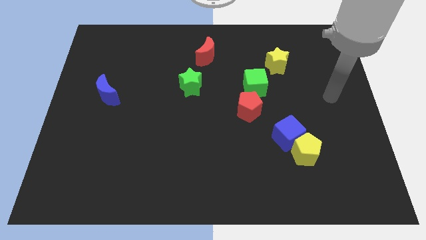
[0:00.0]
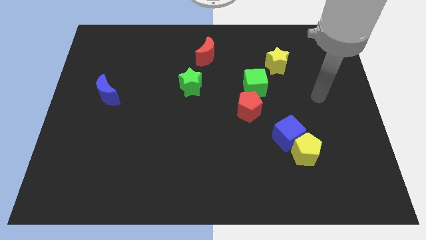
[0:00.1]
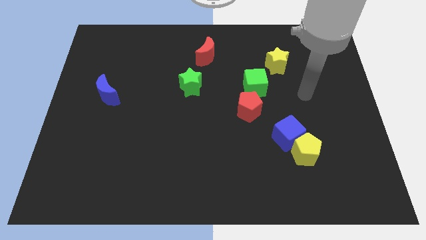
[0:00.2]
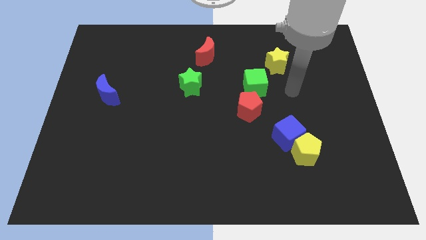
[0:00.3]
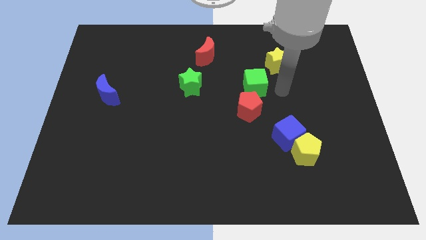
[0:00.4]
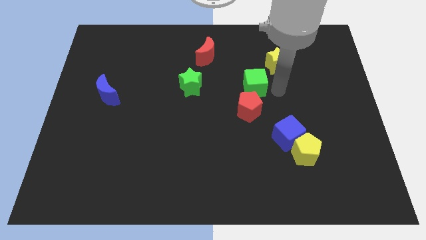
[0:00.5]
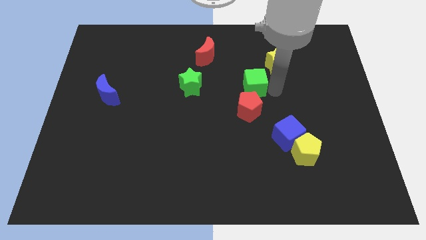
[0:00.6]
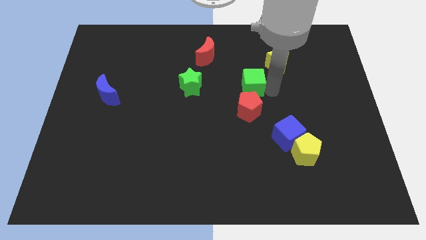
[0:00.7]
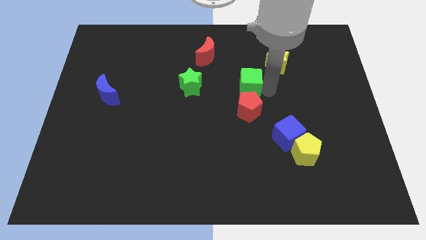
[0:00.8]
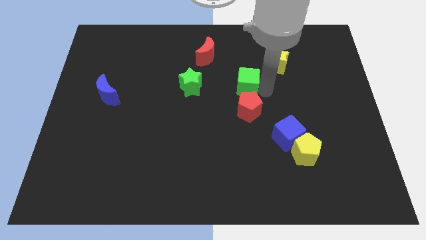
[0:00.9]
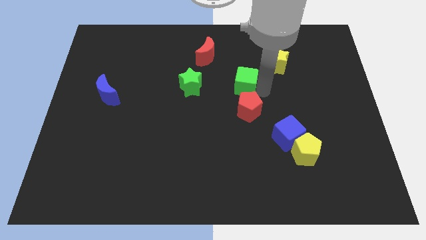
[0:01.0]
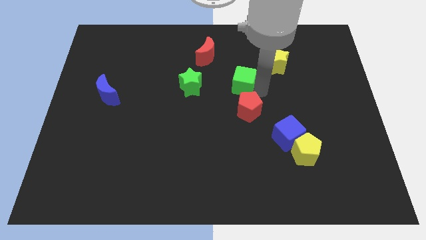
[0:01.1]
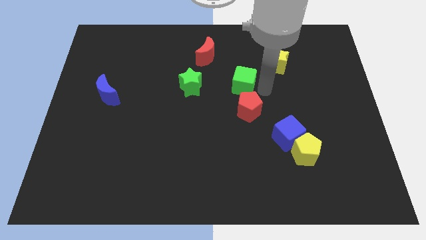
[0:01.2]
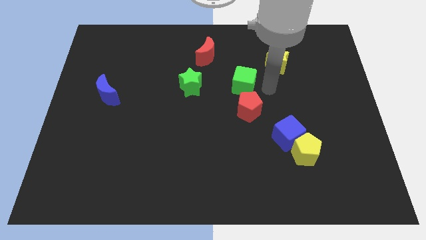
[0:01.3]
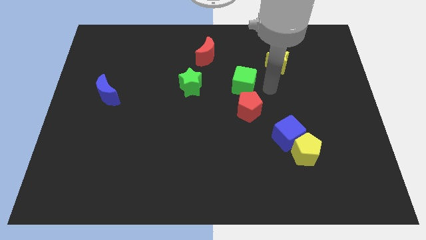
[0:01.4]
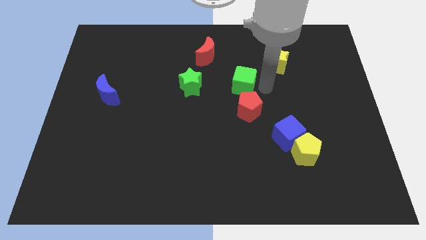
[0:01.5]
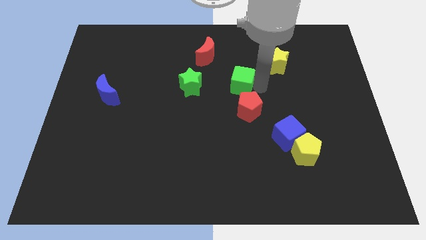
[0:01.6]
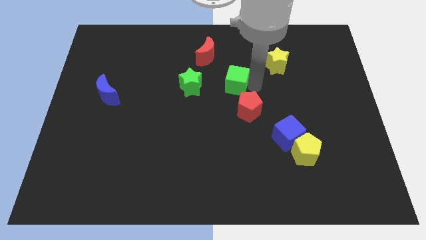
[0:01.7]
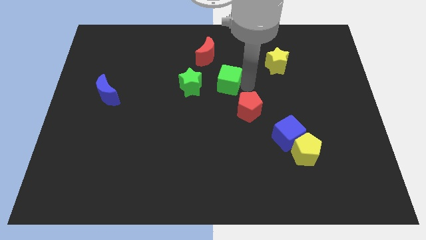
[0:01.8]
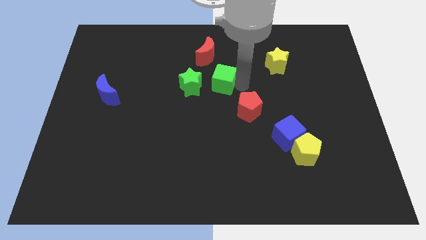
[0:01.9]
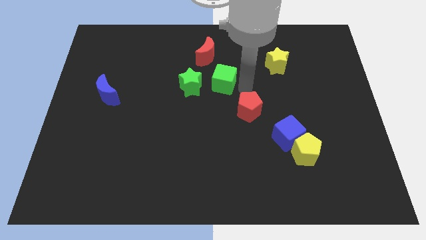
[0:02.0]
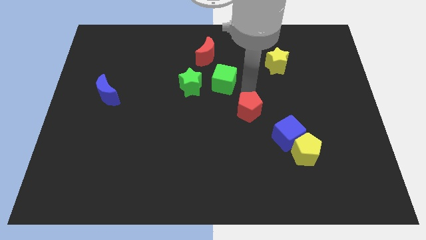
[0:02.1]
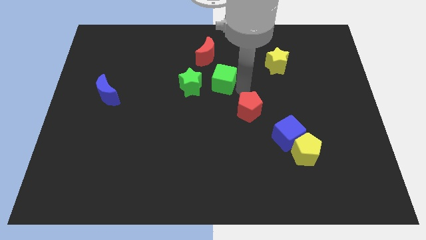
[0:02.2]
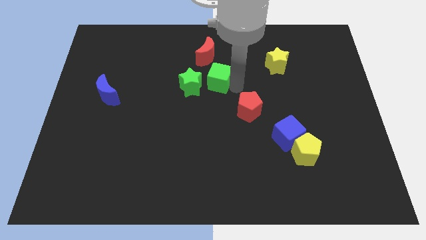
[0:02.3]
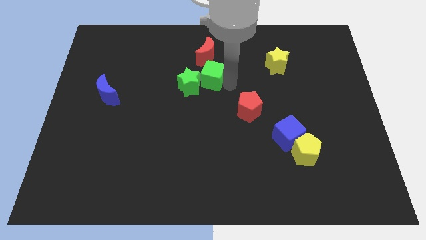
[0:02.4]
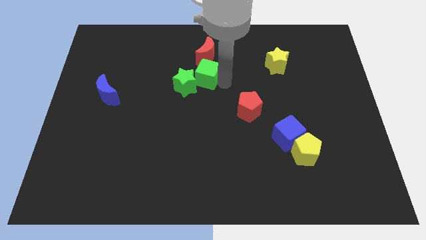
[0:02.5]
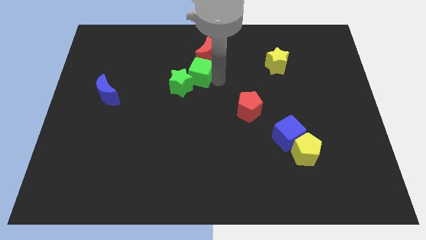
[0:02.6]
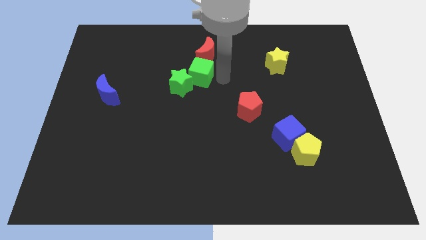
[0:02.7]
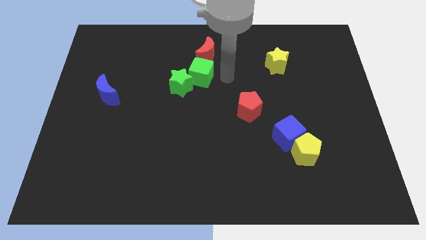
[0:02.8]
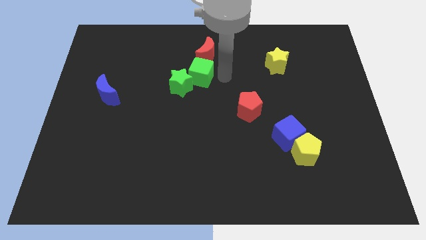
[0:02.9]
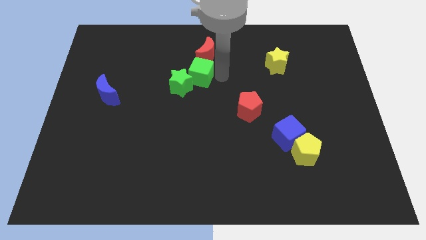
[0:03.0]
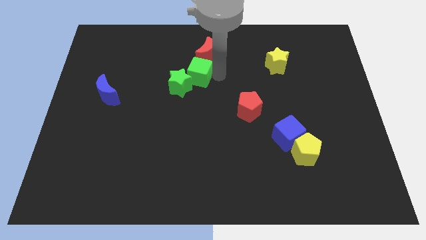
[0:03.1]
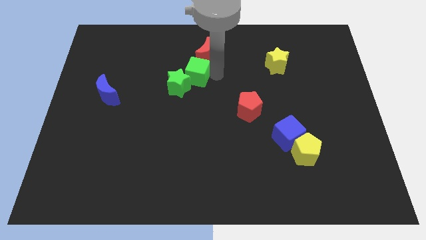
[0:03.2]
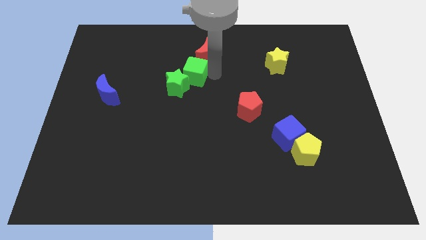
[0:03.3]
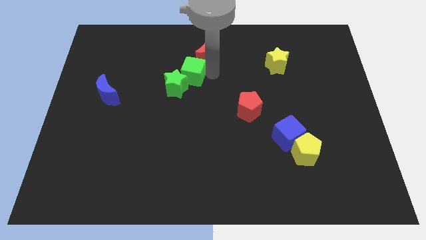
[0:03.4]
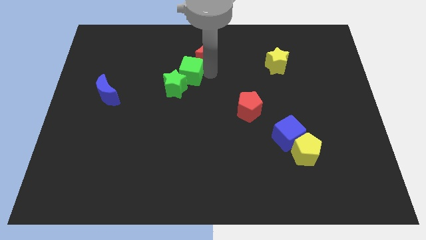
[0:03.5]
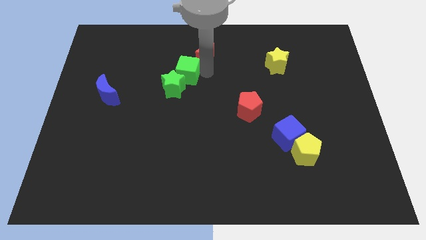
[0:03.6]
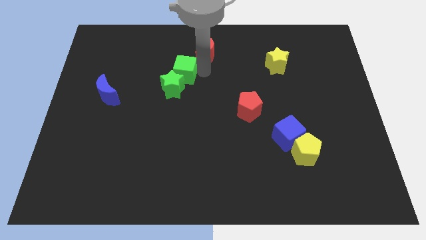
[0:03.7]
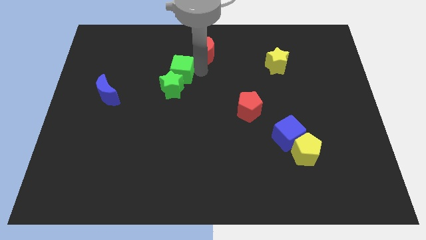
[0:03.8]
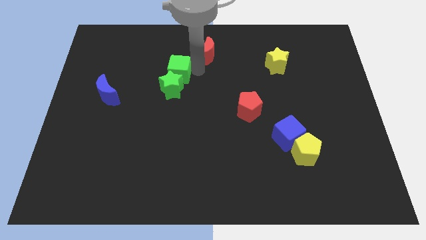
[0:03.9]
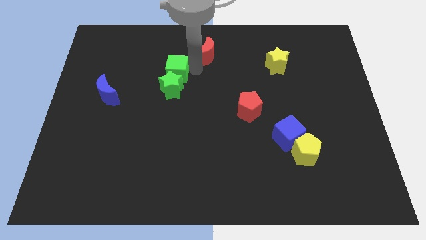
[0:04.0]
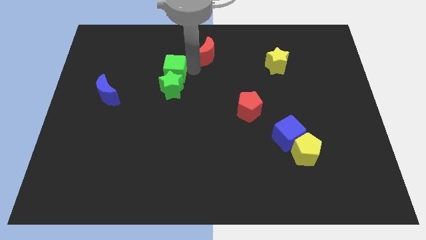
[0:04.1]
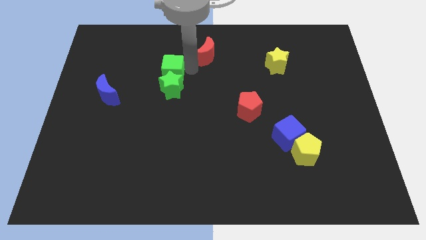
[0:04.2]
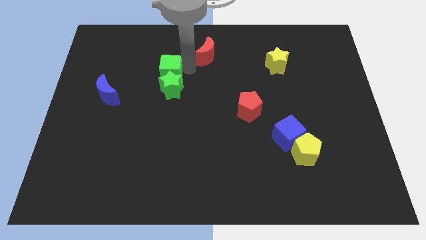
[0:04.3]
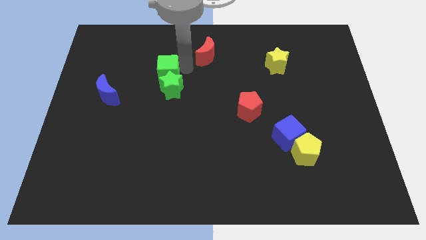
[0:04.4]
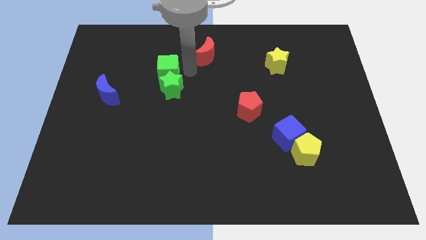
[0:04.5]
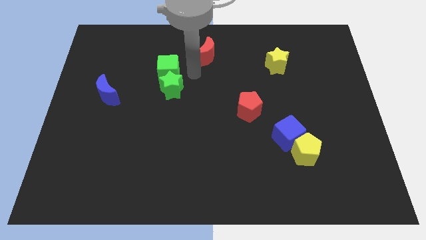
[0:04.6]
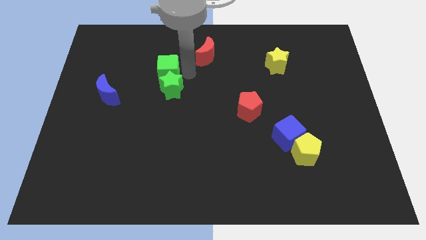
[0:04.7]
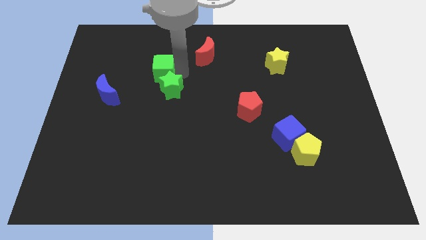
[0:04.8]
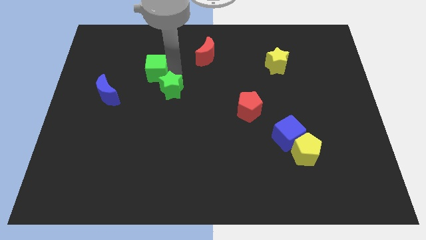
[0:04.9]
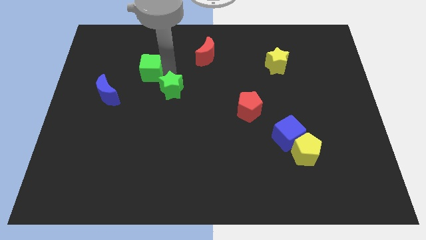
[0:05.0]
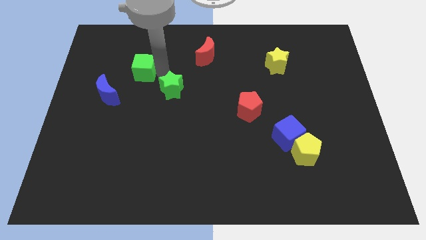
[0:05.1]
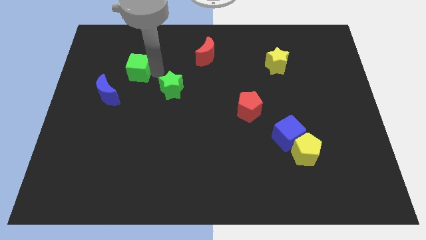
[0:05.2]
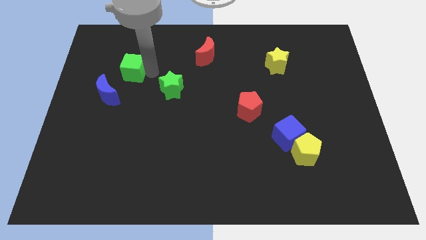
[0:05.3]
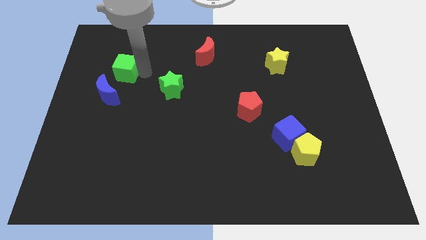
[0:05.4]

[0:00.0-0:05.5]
push the green cube to the top of the blue moon

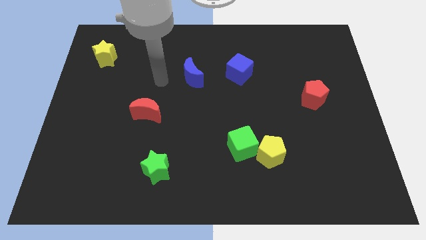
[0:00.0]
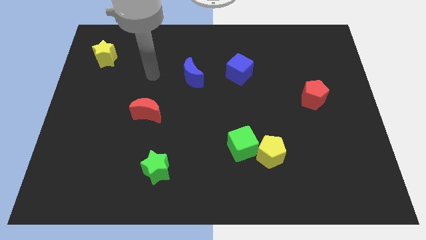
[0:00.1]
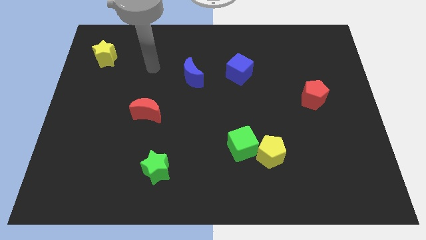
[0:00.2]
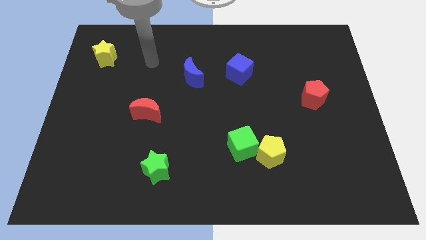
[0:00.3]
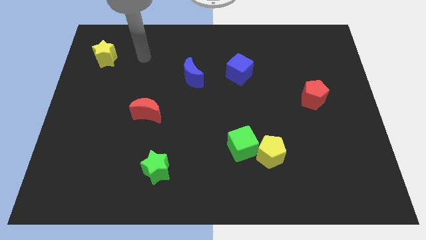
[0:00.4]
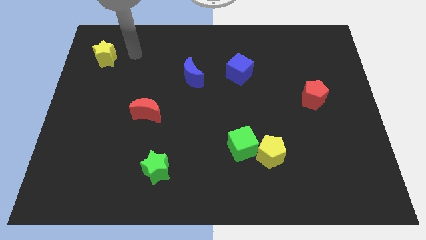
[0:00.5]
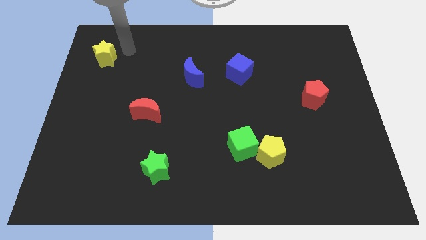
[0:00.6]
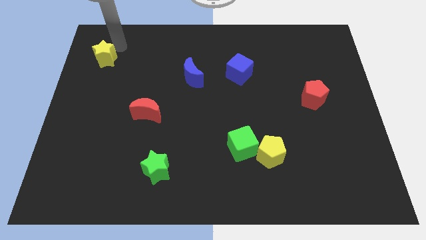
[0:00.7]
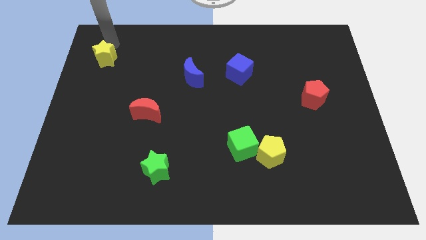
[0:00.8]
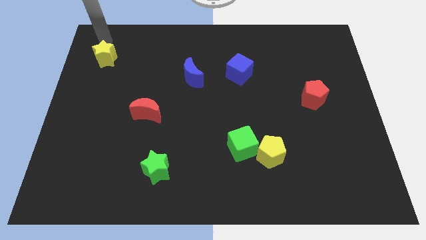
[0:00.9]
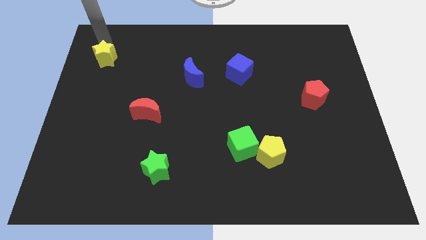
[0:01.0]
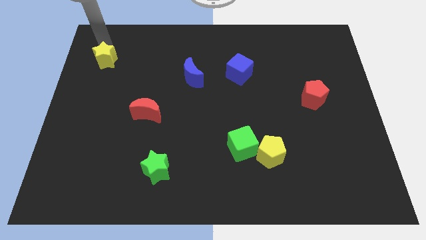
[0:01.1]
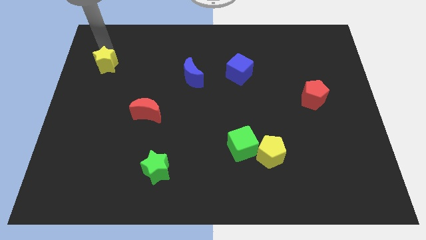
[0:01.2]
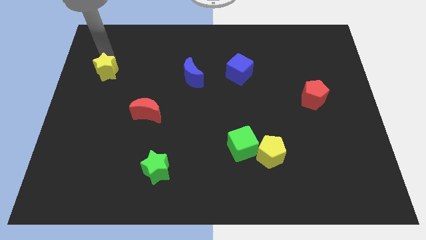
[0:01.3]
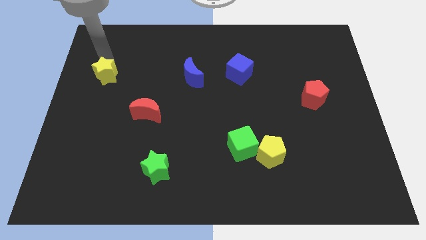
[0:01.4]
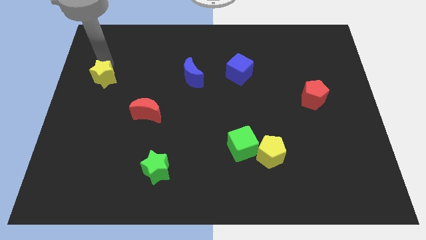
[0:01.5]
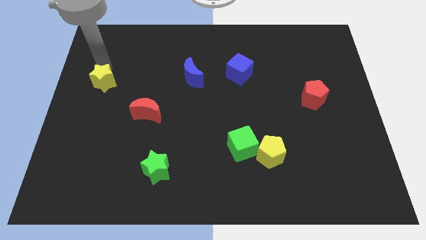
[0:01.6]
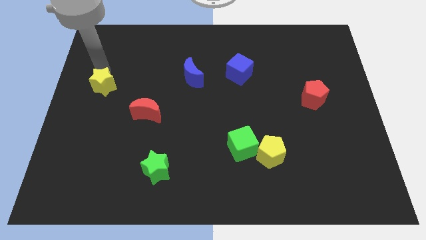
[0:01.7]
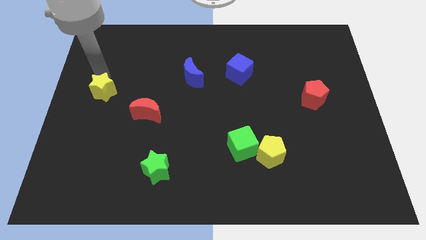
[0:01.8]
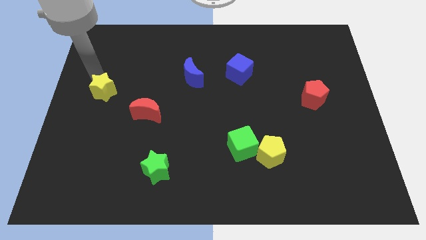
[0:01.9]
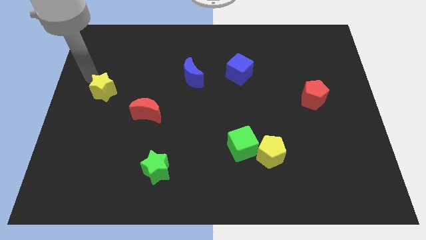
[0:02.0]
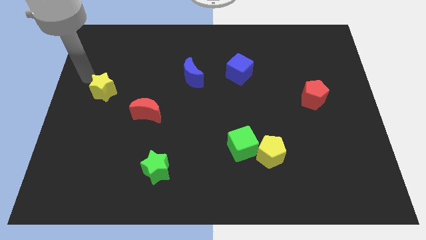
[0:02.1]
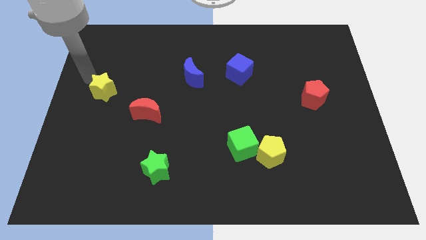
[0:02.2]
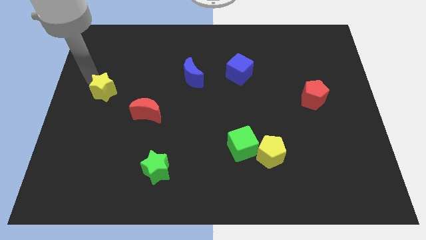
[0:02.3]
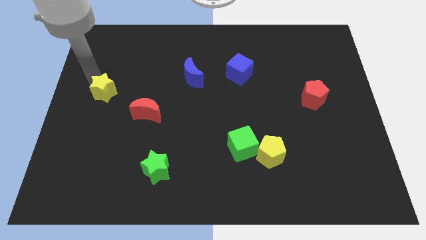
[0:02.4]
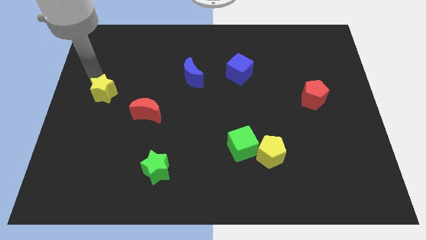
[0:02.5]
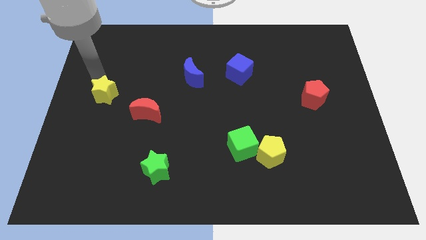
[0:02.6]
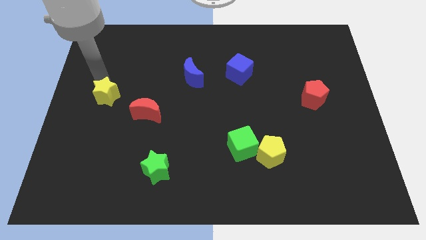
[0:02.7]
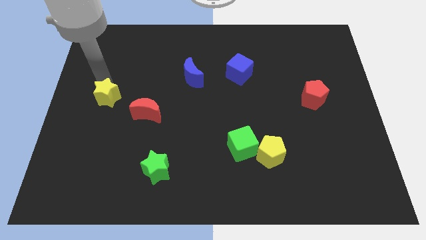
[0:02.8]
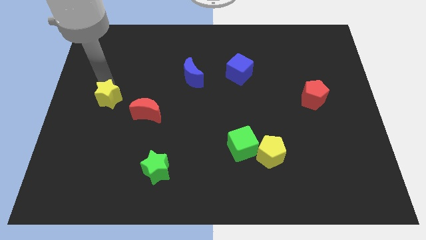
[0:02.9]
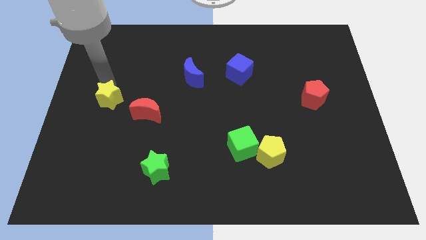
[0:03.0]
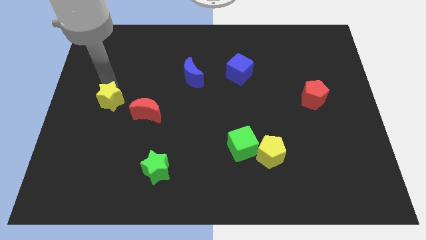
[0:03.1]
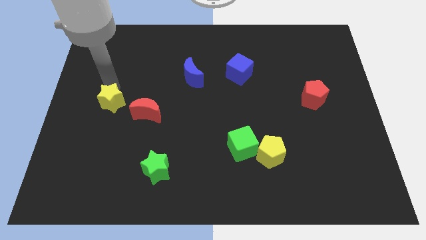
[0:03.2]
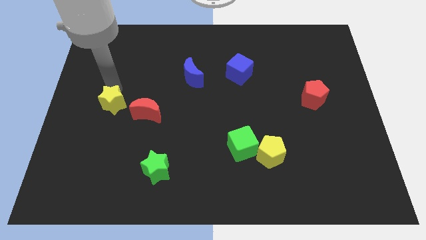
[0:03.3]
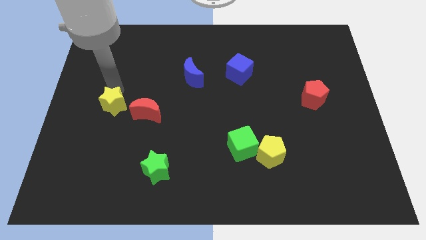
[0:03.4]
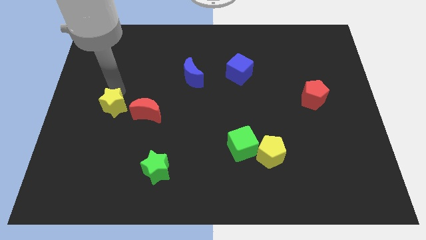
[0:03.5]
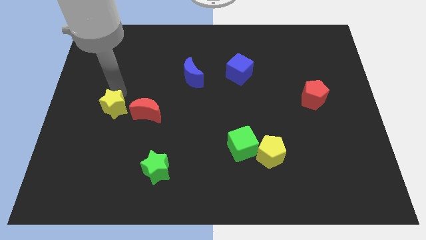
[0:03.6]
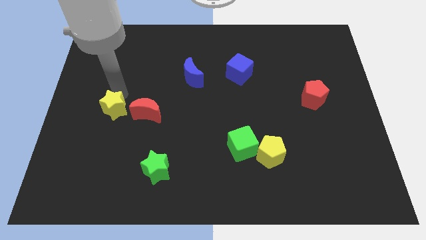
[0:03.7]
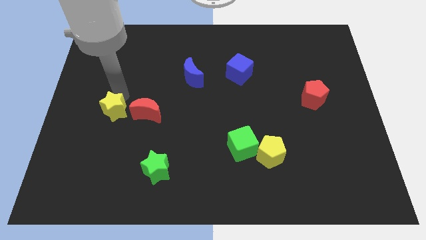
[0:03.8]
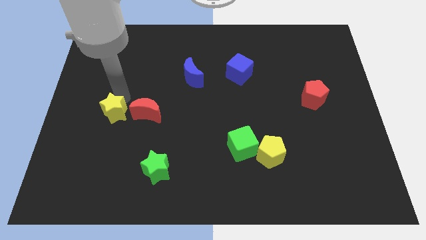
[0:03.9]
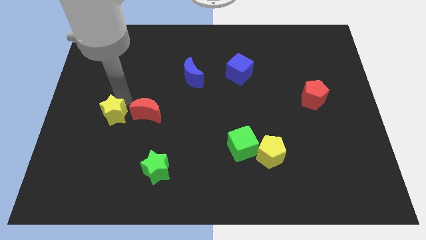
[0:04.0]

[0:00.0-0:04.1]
push the yellow star diagonally down and to the left of the red moon
